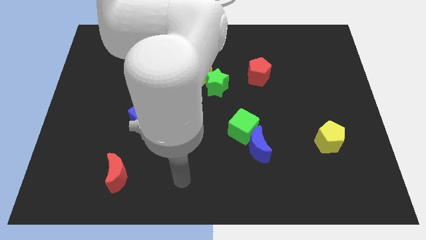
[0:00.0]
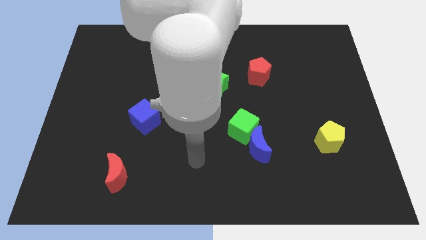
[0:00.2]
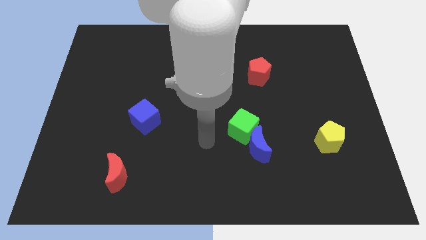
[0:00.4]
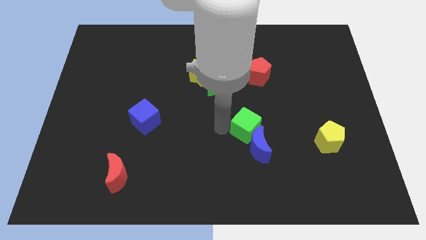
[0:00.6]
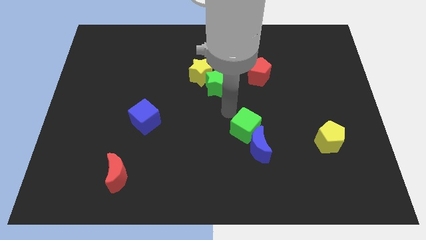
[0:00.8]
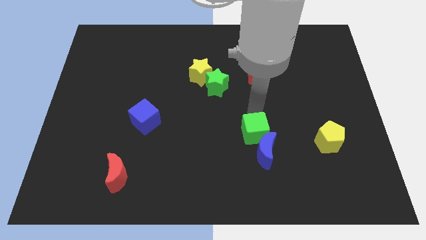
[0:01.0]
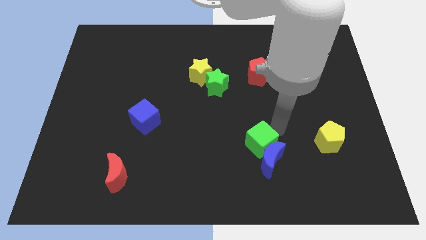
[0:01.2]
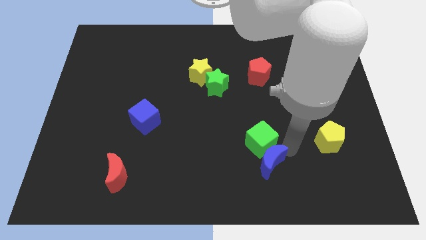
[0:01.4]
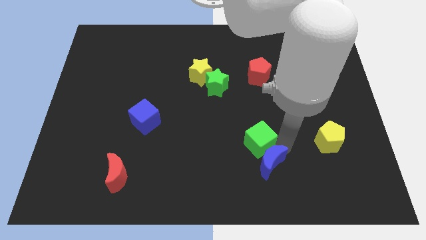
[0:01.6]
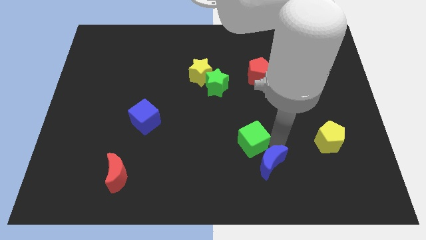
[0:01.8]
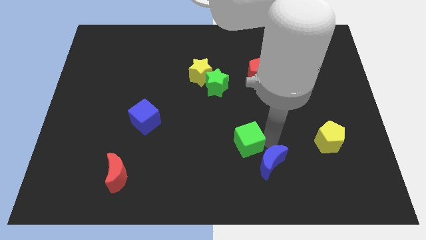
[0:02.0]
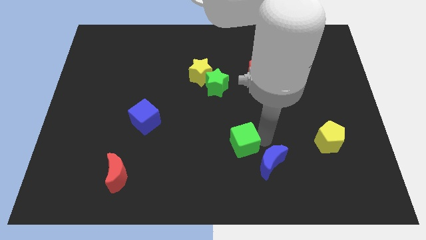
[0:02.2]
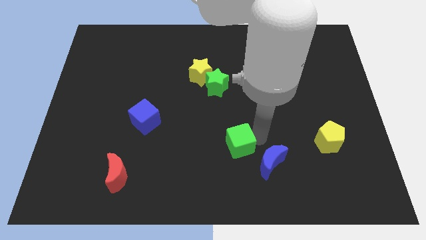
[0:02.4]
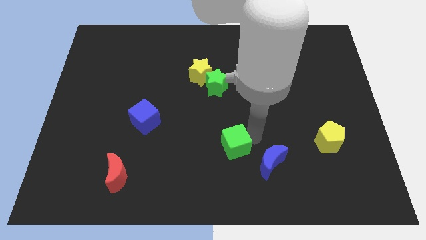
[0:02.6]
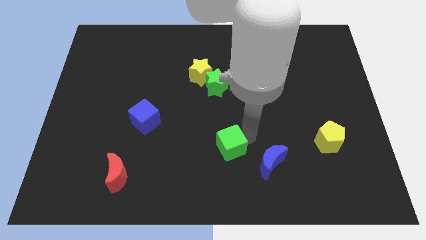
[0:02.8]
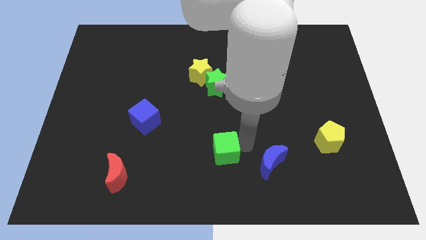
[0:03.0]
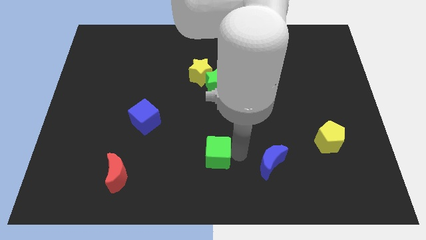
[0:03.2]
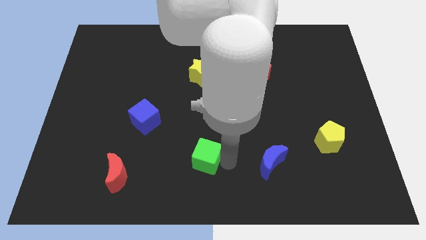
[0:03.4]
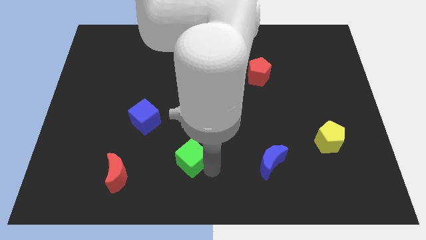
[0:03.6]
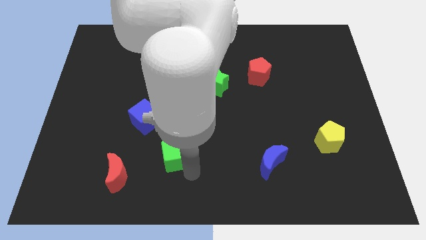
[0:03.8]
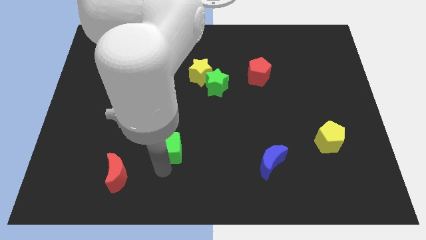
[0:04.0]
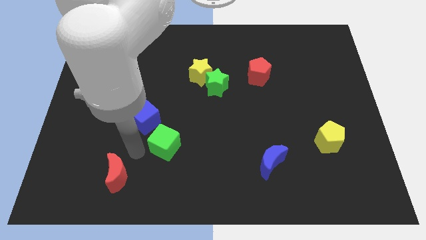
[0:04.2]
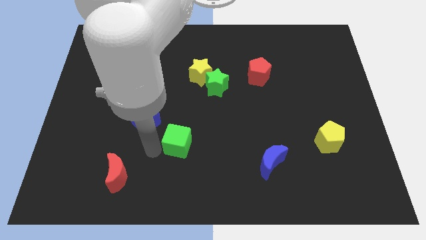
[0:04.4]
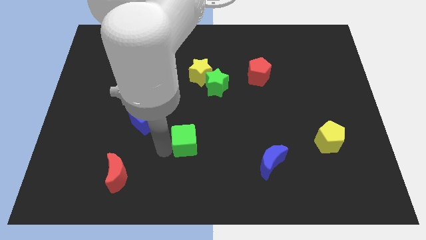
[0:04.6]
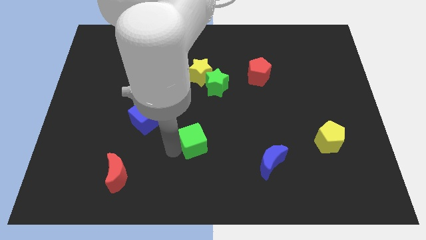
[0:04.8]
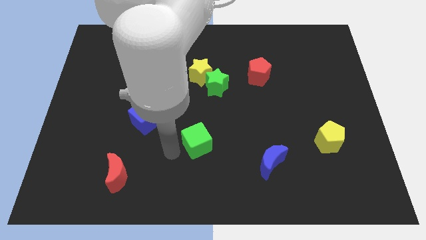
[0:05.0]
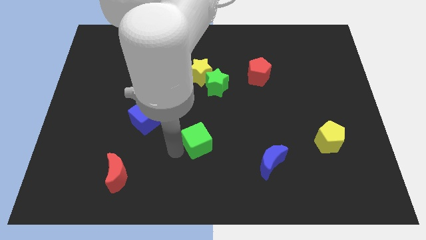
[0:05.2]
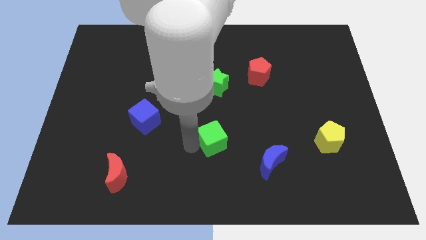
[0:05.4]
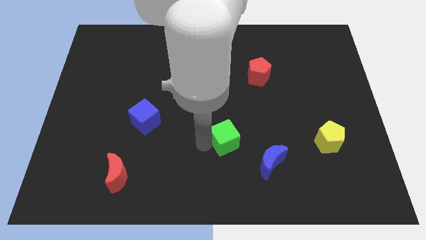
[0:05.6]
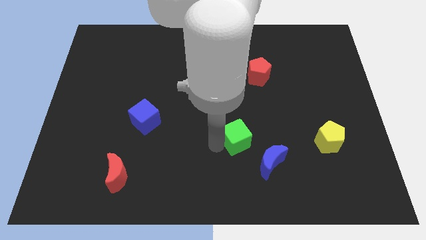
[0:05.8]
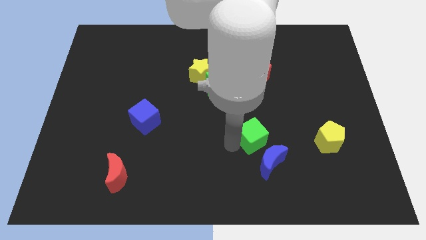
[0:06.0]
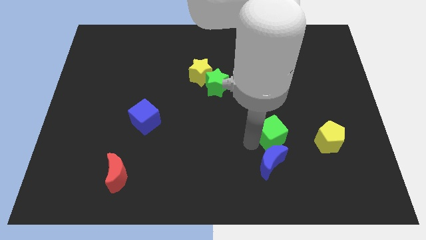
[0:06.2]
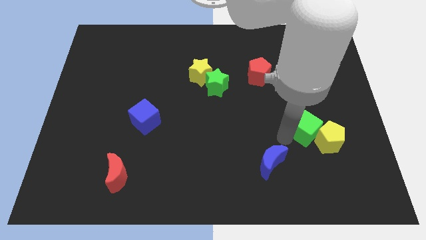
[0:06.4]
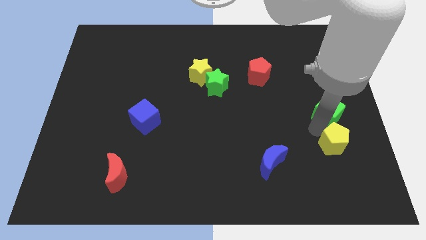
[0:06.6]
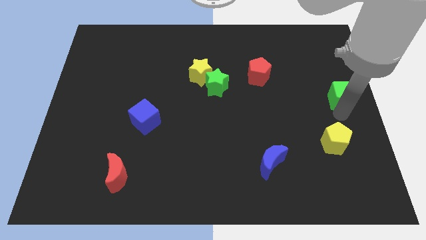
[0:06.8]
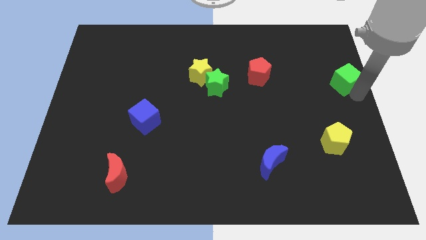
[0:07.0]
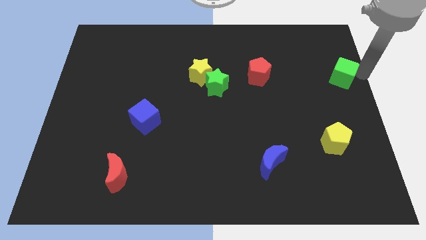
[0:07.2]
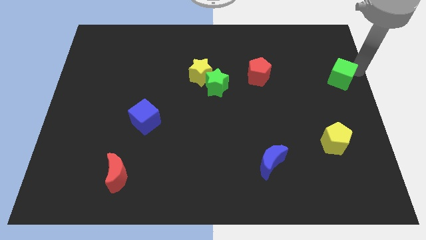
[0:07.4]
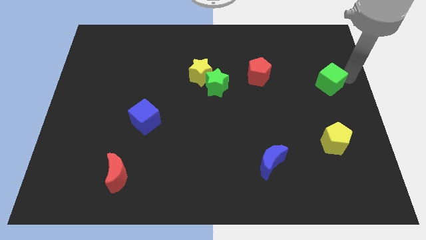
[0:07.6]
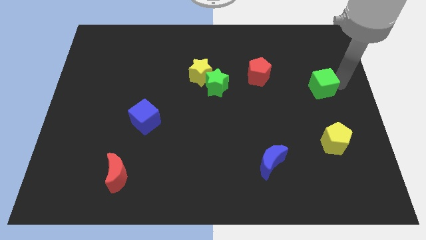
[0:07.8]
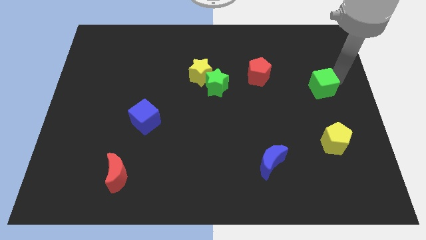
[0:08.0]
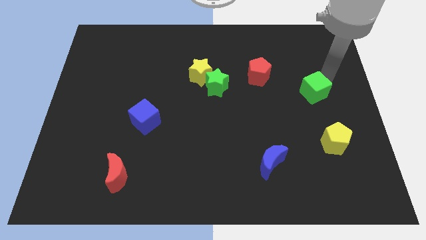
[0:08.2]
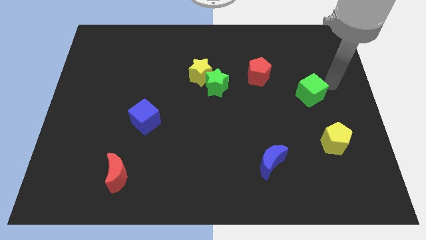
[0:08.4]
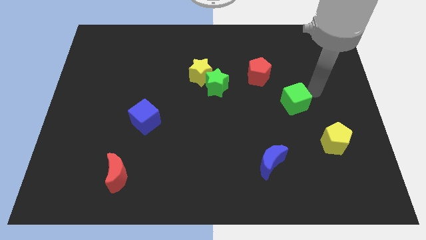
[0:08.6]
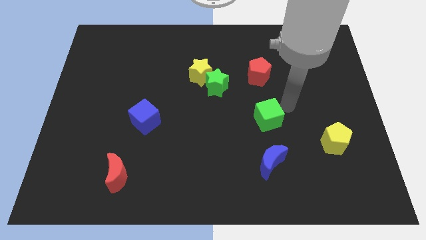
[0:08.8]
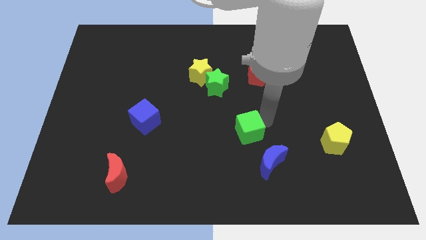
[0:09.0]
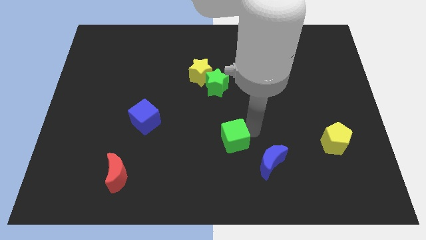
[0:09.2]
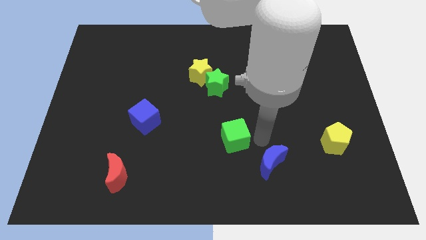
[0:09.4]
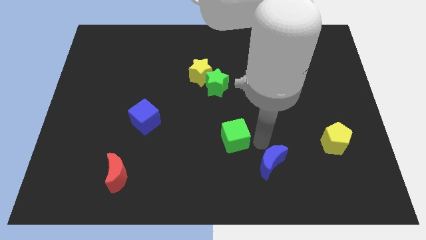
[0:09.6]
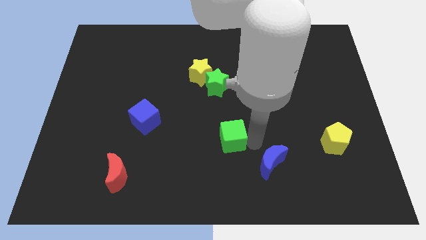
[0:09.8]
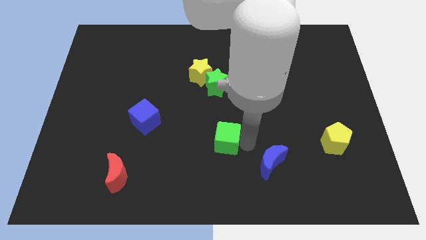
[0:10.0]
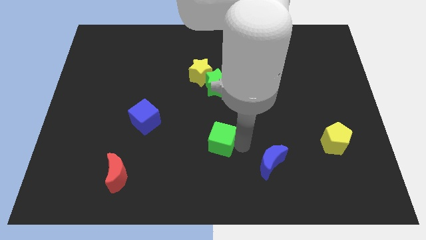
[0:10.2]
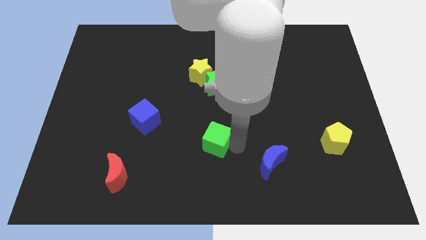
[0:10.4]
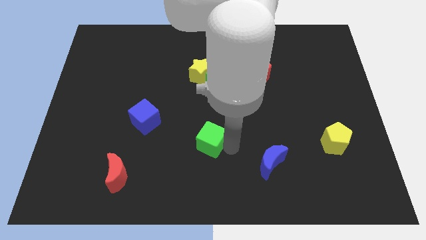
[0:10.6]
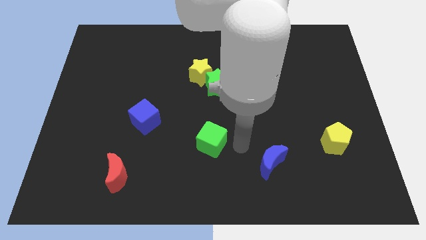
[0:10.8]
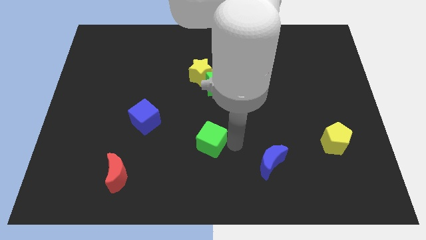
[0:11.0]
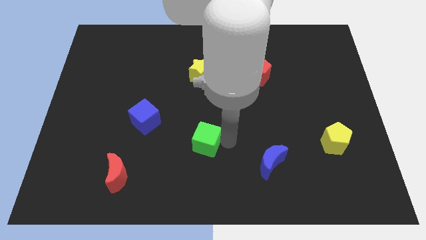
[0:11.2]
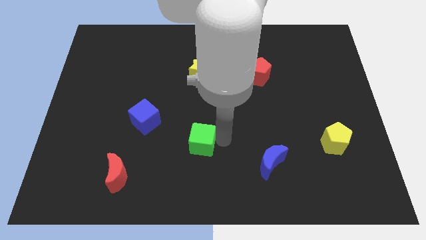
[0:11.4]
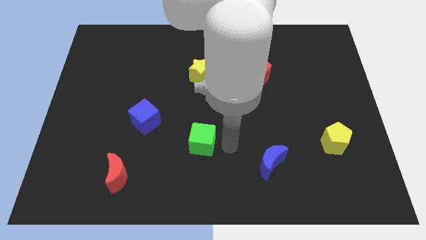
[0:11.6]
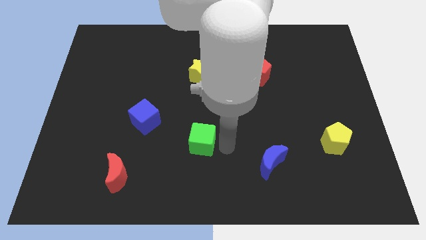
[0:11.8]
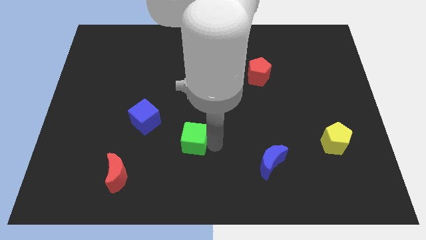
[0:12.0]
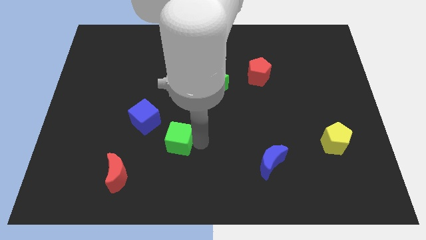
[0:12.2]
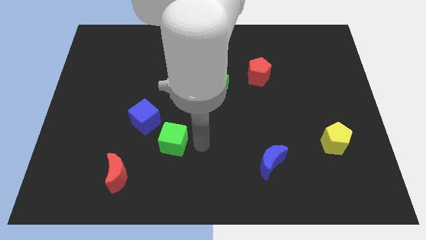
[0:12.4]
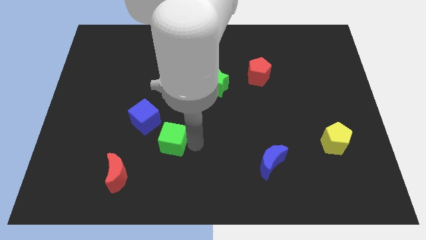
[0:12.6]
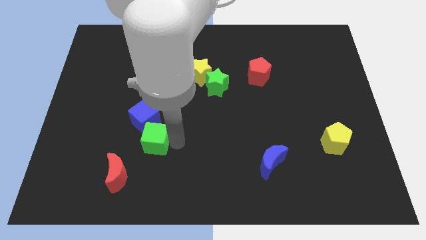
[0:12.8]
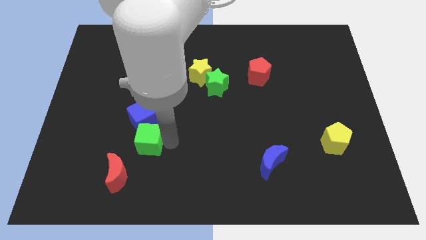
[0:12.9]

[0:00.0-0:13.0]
slide the green cube to the left

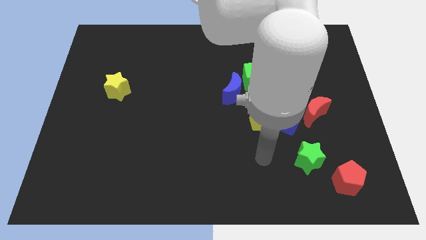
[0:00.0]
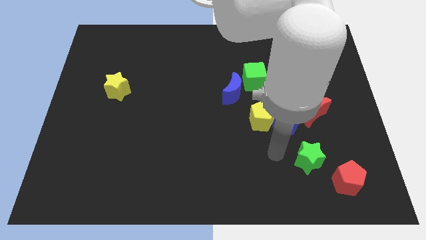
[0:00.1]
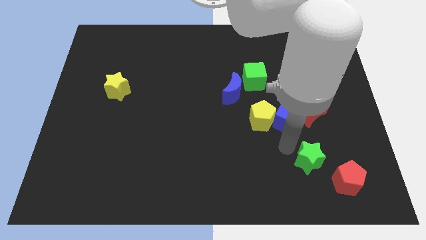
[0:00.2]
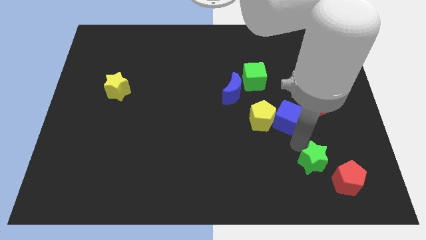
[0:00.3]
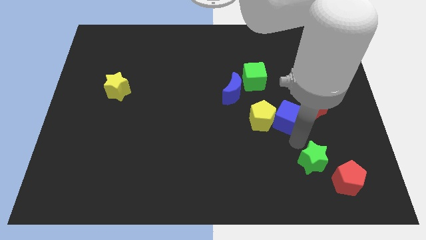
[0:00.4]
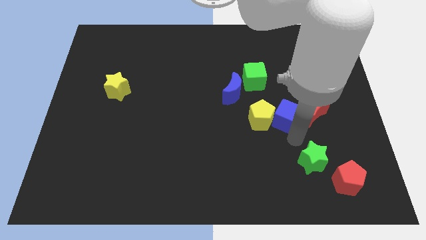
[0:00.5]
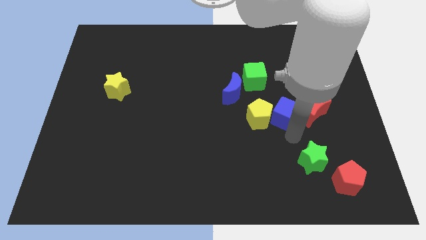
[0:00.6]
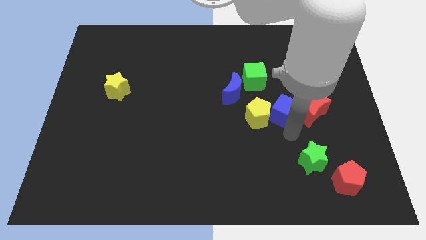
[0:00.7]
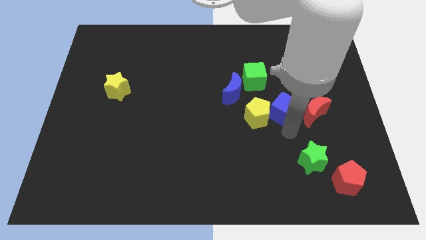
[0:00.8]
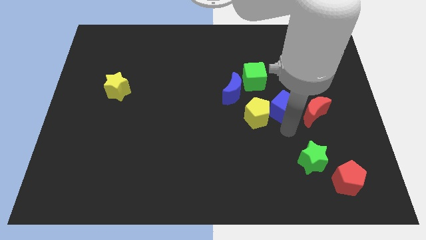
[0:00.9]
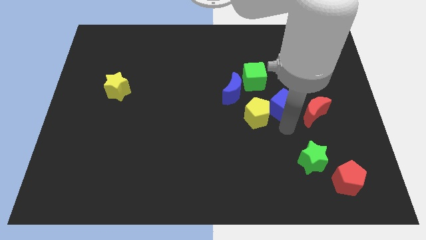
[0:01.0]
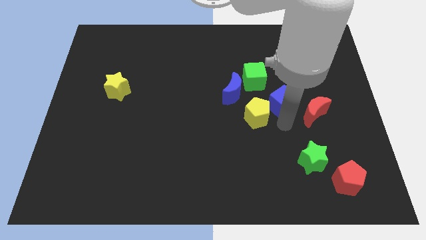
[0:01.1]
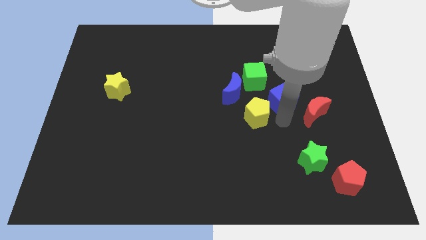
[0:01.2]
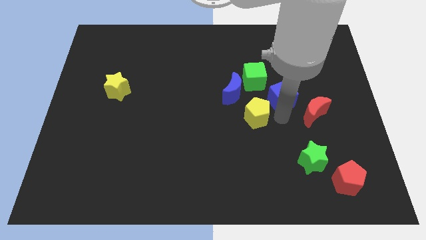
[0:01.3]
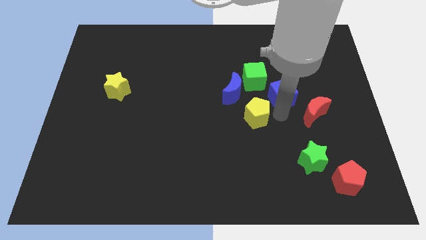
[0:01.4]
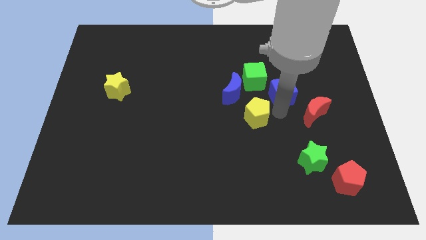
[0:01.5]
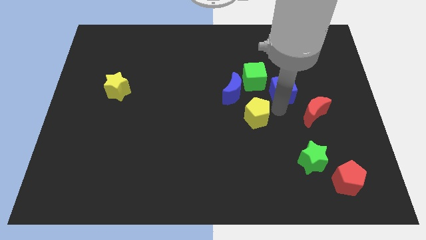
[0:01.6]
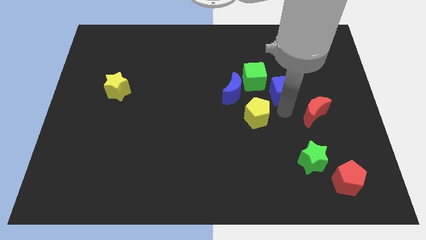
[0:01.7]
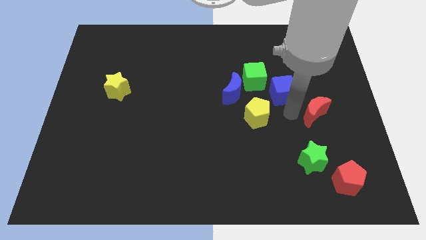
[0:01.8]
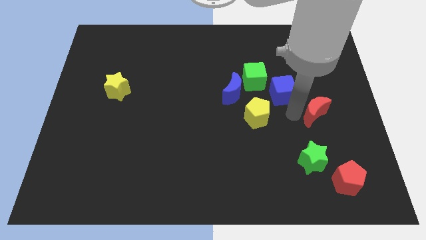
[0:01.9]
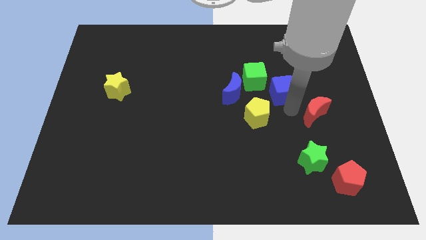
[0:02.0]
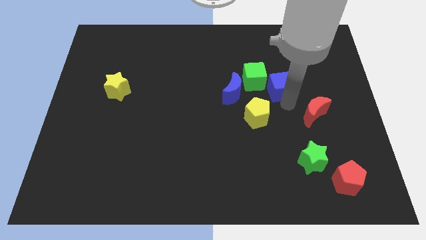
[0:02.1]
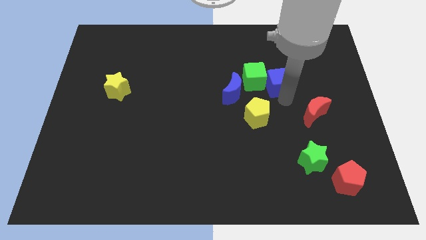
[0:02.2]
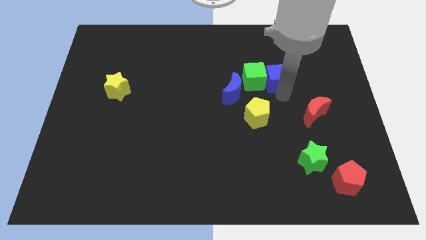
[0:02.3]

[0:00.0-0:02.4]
slightly move the blue cube diagonally upwards and left
